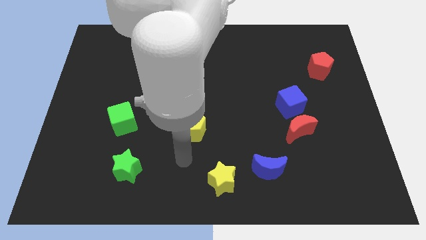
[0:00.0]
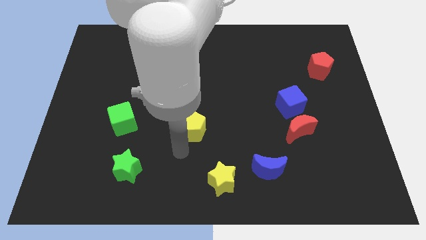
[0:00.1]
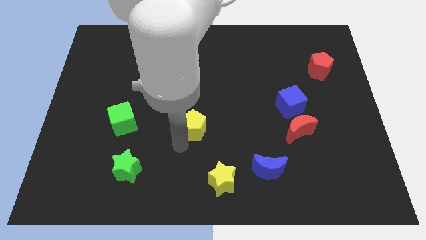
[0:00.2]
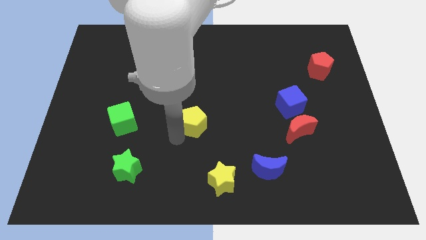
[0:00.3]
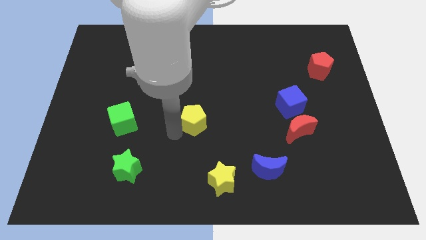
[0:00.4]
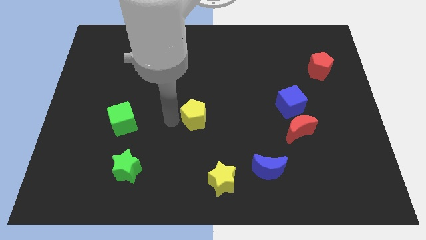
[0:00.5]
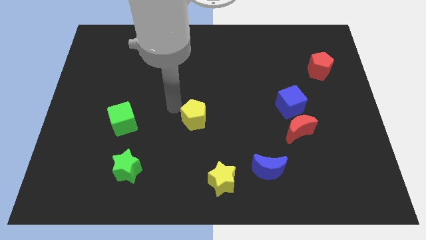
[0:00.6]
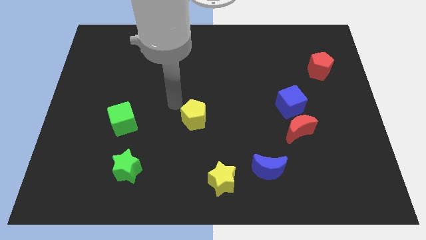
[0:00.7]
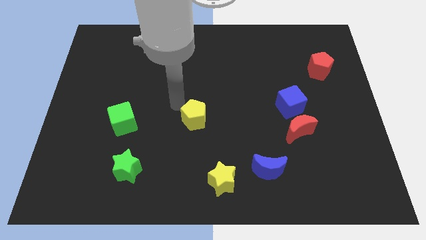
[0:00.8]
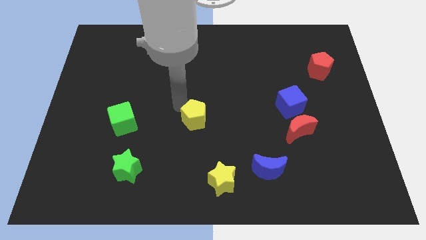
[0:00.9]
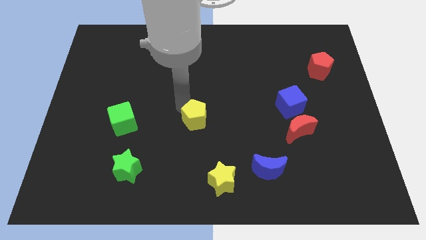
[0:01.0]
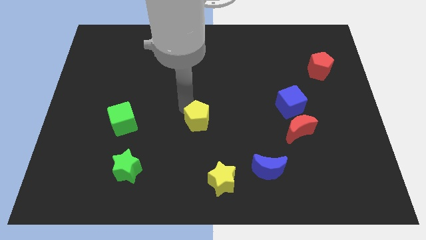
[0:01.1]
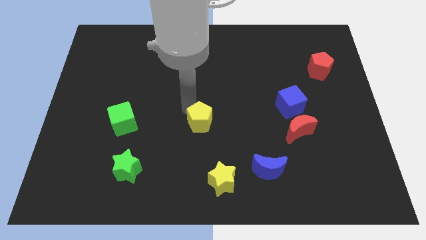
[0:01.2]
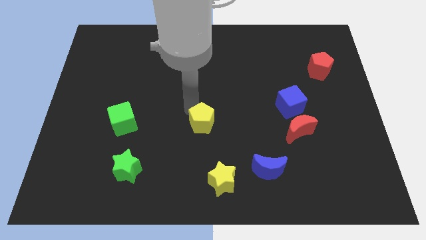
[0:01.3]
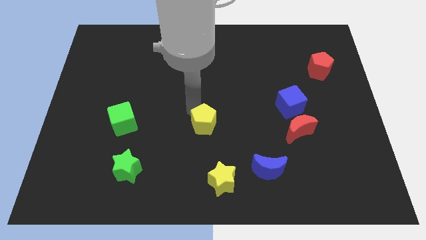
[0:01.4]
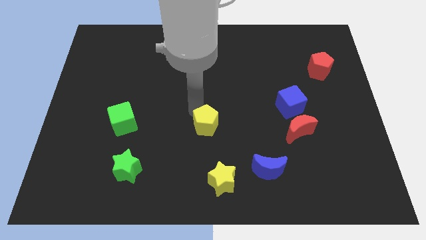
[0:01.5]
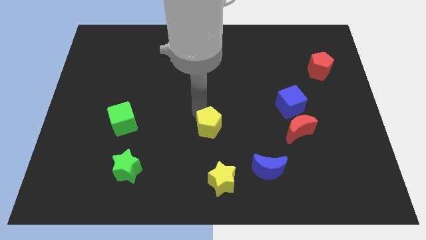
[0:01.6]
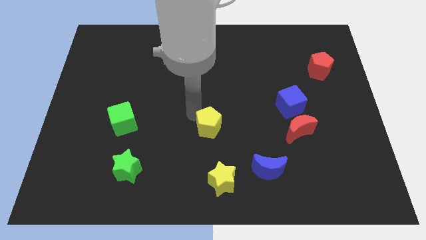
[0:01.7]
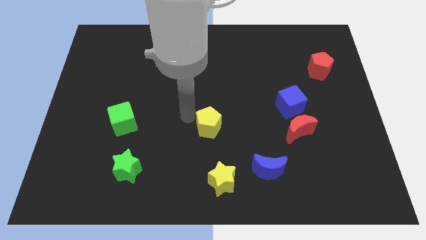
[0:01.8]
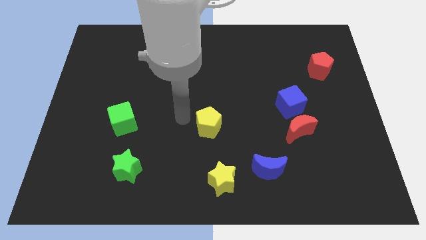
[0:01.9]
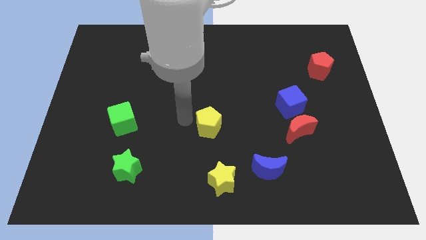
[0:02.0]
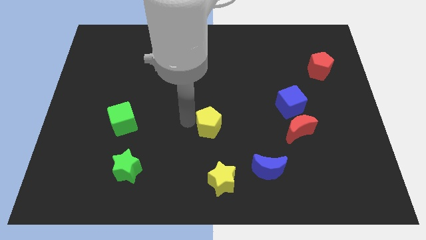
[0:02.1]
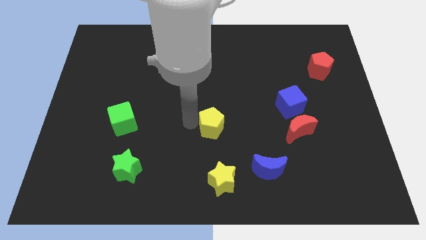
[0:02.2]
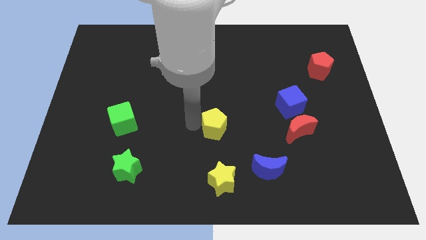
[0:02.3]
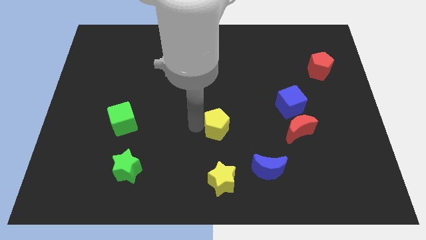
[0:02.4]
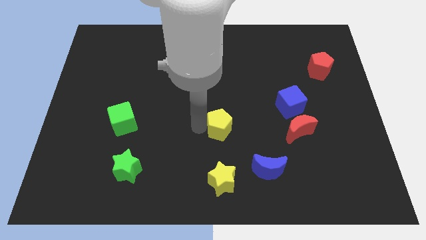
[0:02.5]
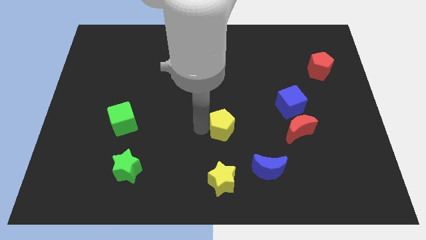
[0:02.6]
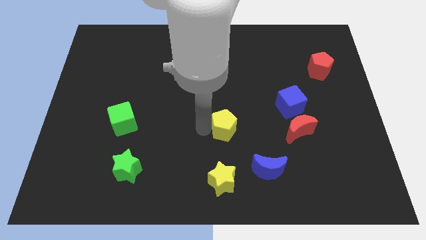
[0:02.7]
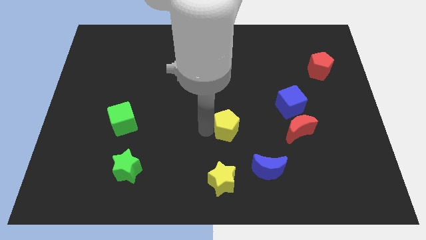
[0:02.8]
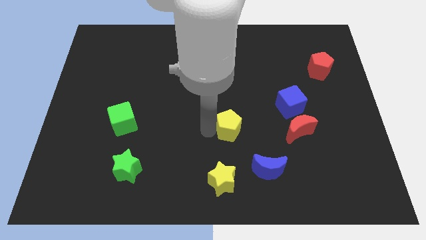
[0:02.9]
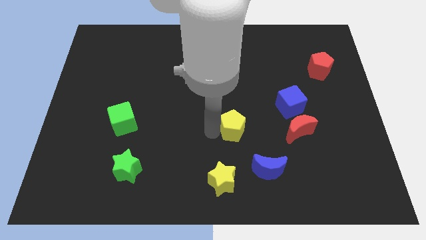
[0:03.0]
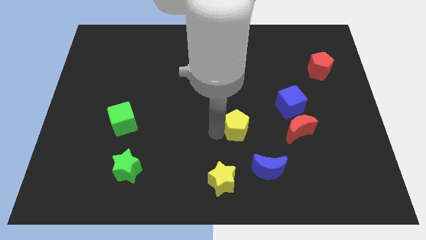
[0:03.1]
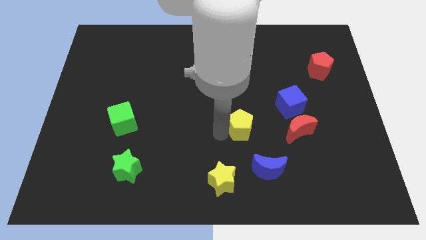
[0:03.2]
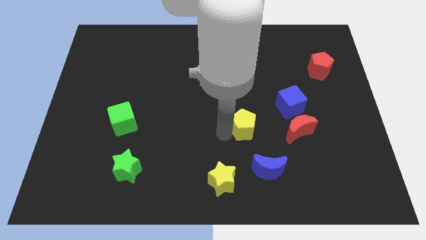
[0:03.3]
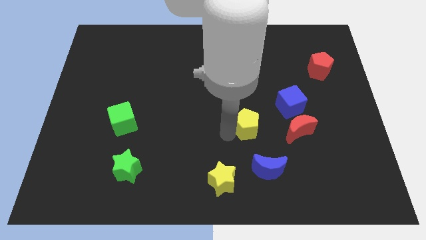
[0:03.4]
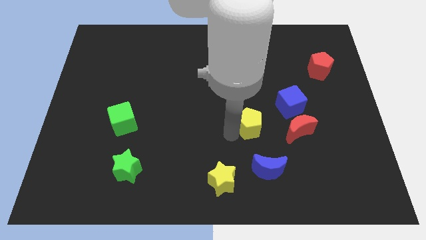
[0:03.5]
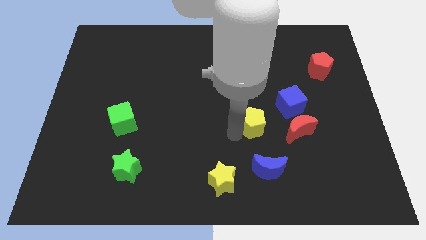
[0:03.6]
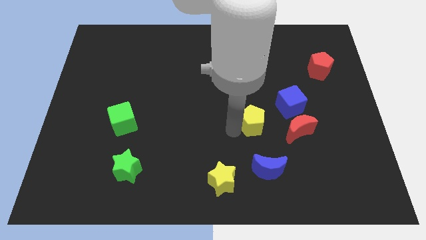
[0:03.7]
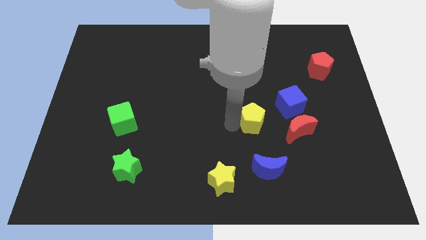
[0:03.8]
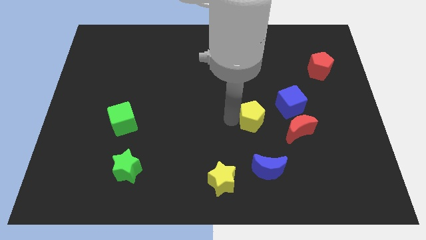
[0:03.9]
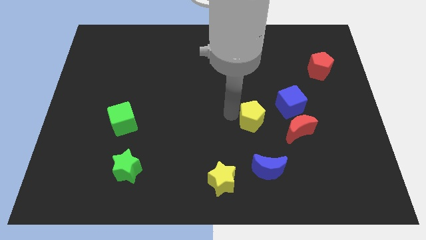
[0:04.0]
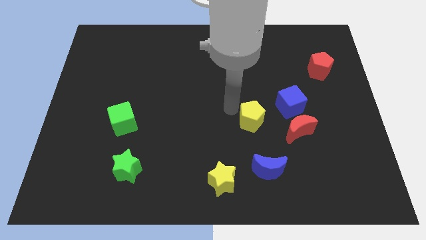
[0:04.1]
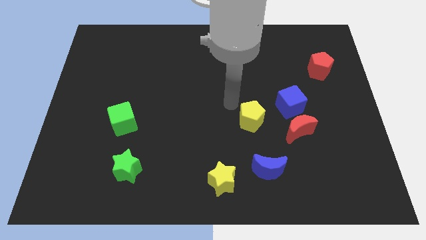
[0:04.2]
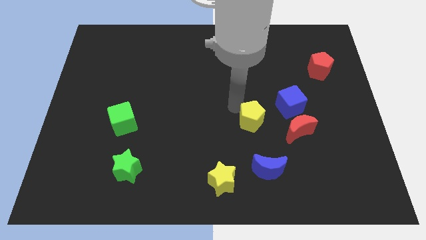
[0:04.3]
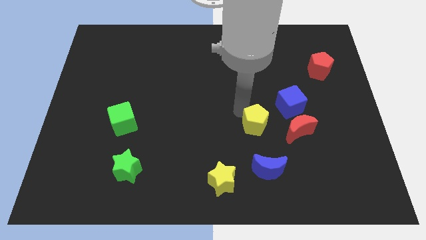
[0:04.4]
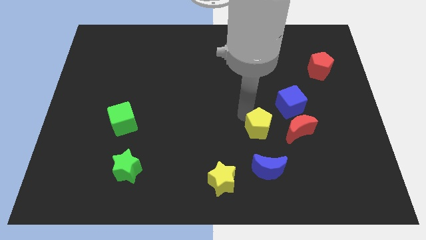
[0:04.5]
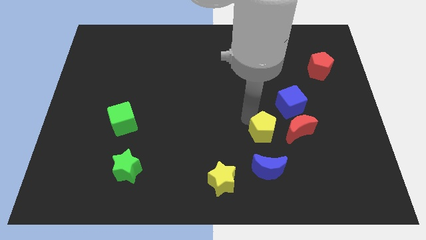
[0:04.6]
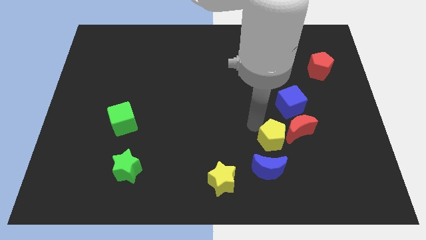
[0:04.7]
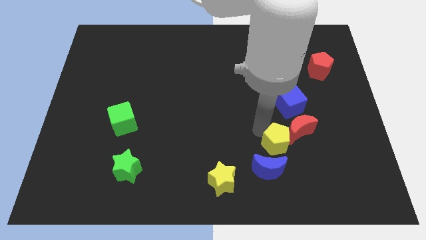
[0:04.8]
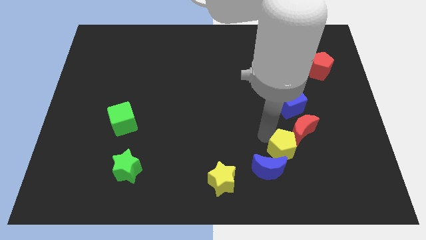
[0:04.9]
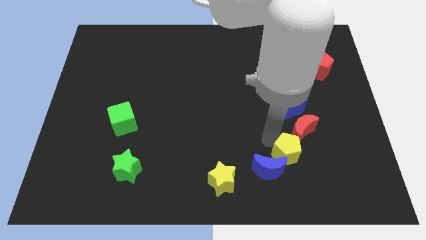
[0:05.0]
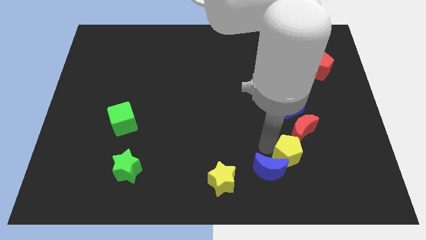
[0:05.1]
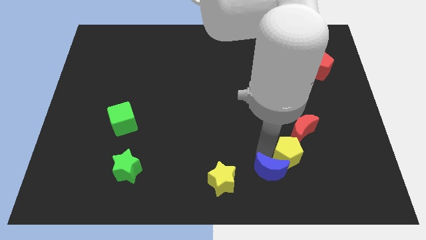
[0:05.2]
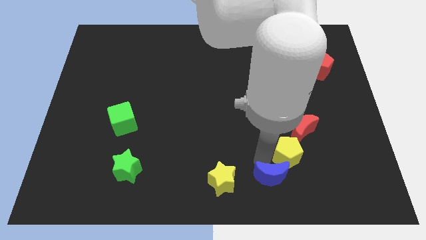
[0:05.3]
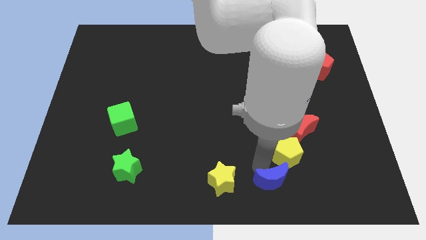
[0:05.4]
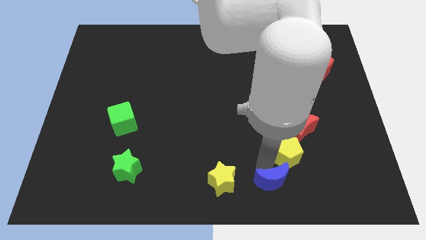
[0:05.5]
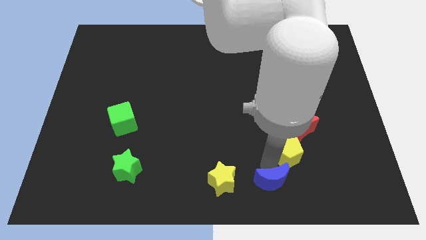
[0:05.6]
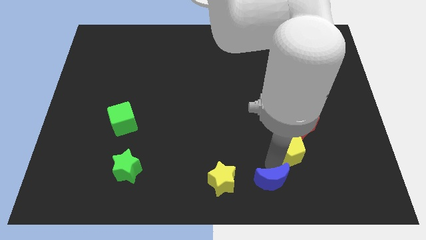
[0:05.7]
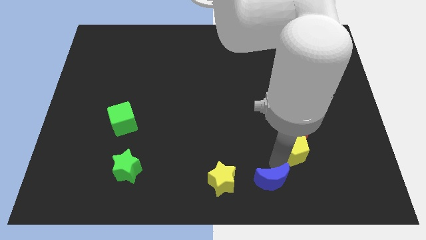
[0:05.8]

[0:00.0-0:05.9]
move the yellow pentagon right

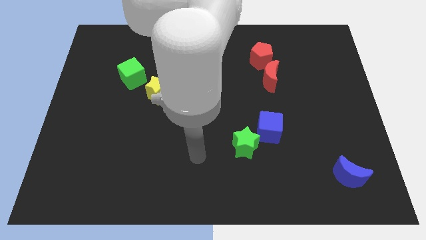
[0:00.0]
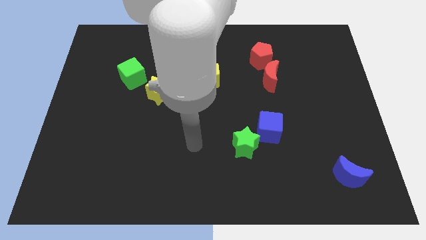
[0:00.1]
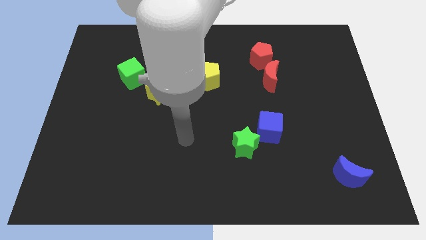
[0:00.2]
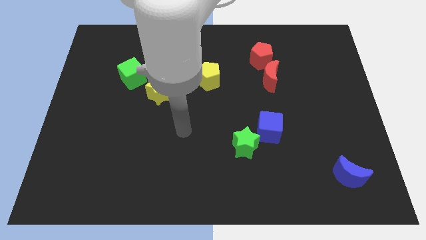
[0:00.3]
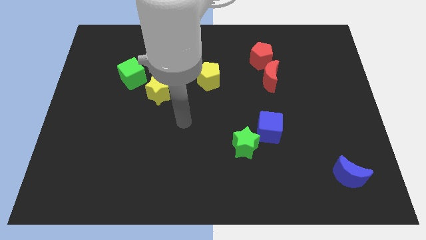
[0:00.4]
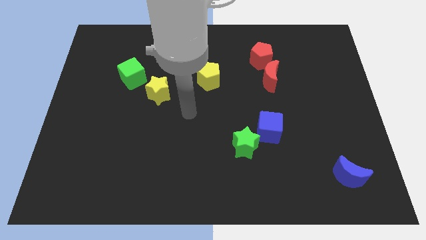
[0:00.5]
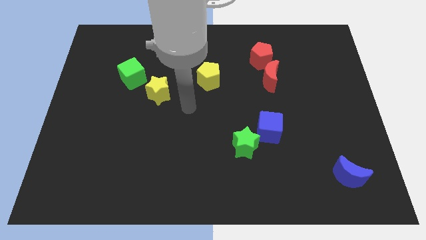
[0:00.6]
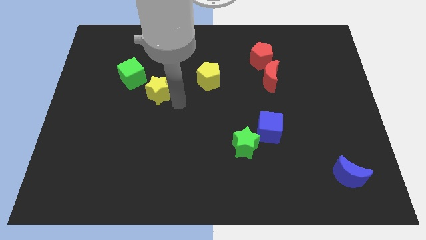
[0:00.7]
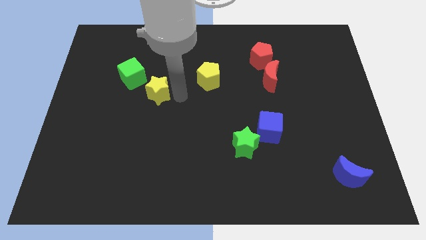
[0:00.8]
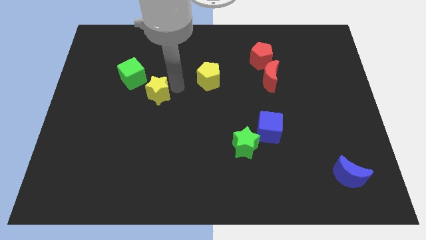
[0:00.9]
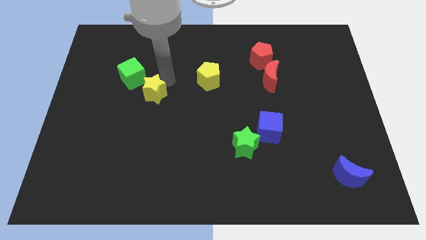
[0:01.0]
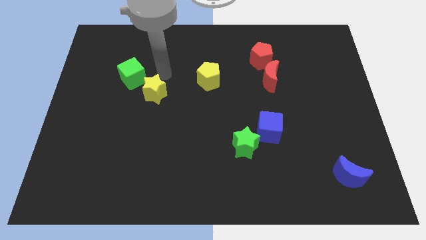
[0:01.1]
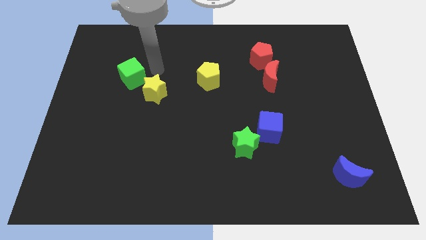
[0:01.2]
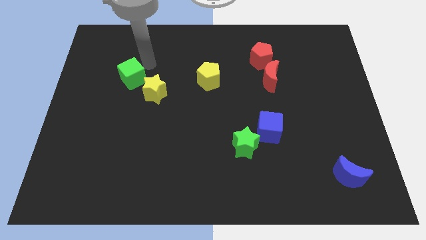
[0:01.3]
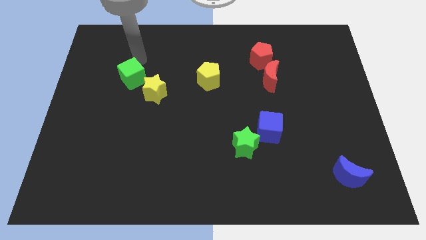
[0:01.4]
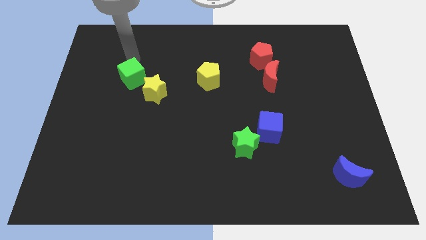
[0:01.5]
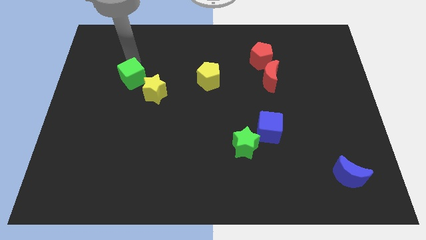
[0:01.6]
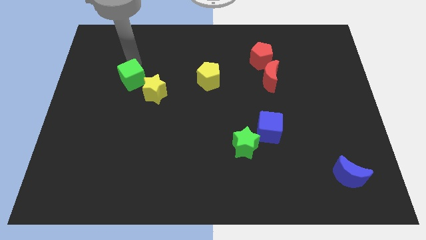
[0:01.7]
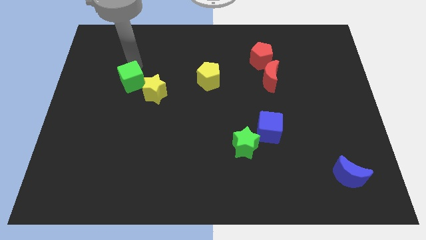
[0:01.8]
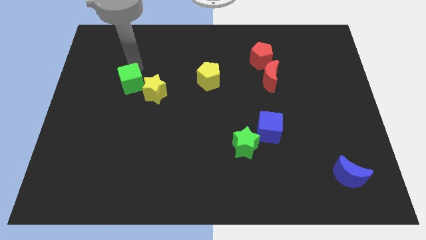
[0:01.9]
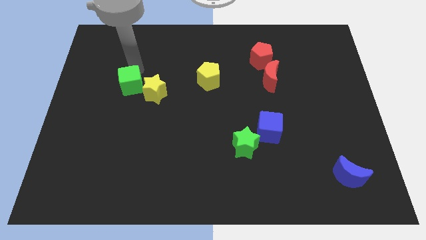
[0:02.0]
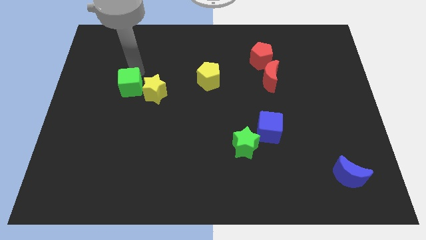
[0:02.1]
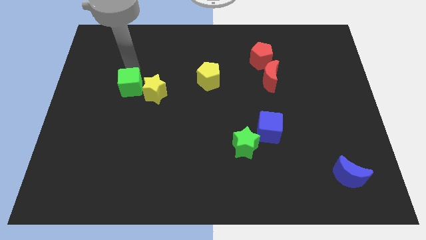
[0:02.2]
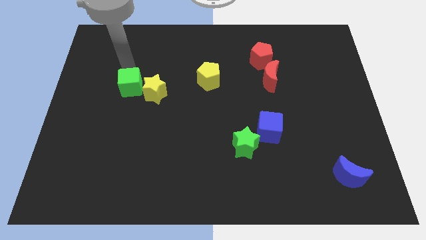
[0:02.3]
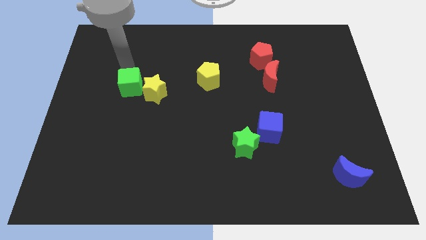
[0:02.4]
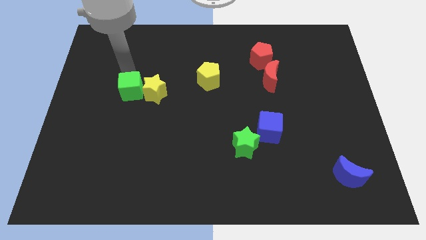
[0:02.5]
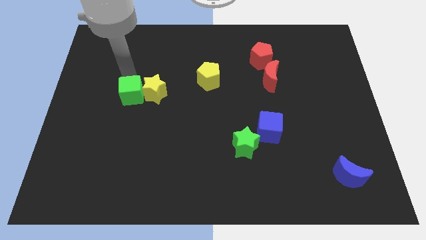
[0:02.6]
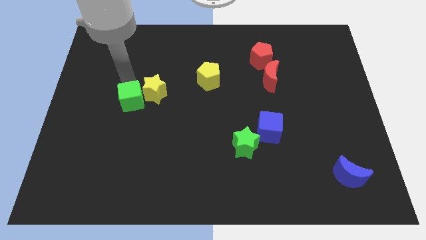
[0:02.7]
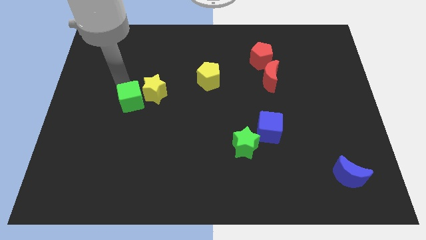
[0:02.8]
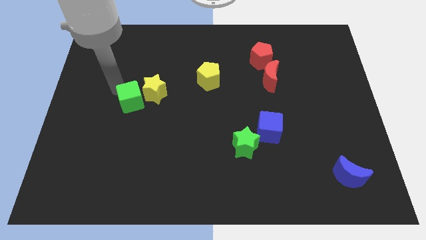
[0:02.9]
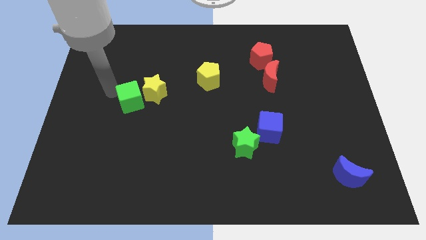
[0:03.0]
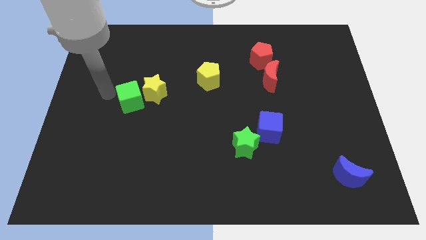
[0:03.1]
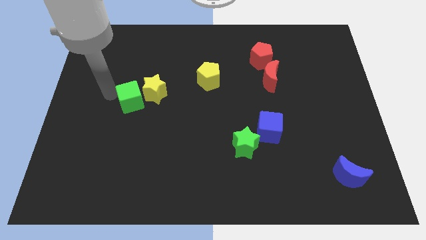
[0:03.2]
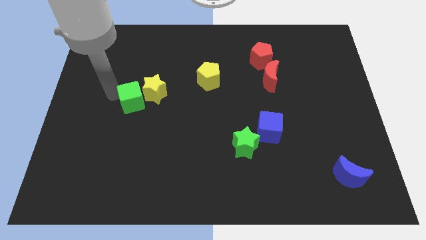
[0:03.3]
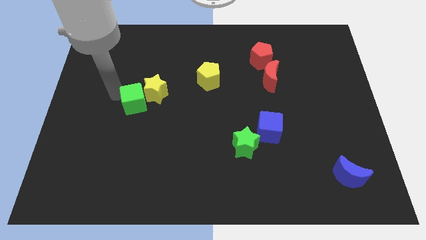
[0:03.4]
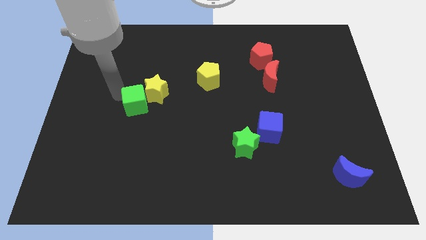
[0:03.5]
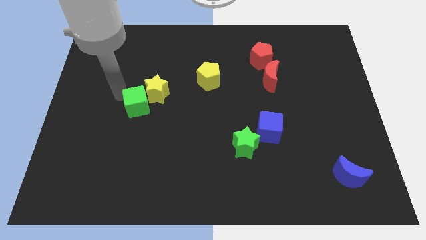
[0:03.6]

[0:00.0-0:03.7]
slide the green cube a little diagonally down and to the right
